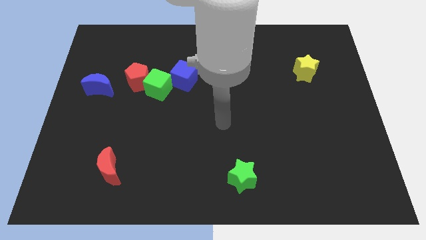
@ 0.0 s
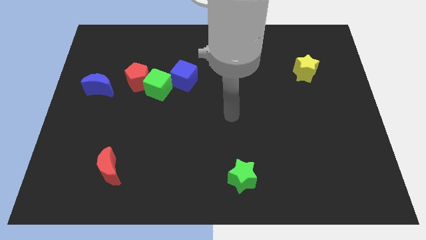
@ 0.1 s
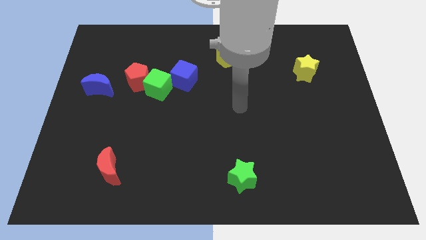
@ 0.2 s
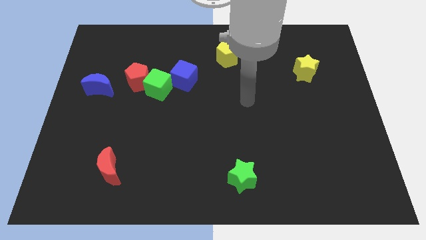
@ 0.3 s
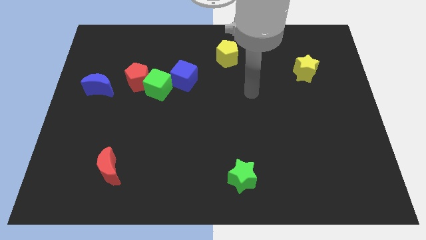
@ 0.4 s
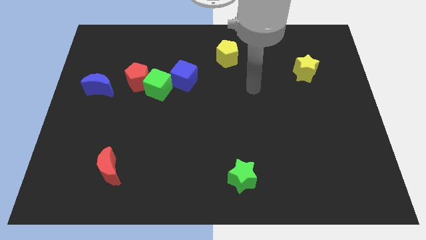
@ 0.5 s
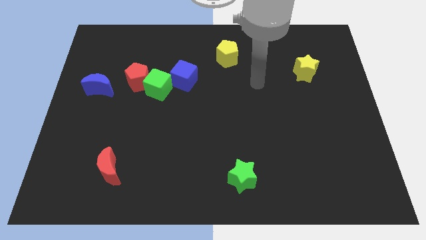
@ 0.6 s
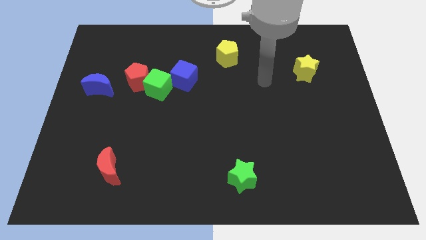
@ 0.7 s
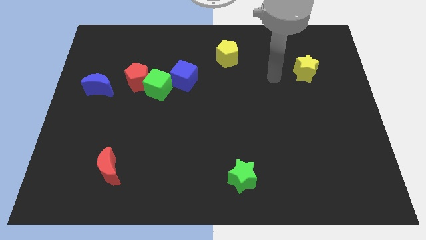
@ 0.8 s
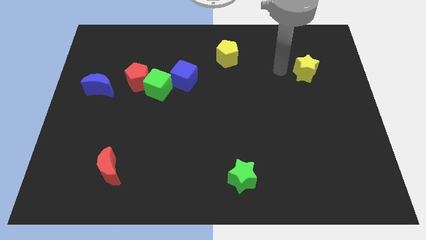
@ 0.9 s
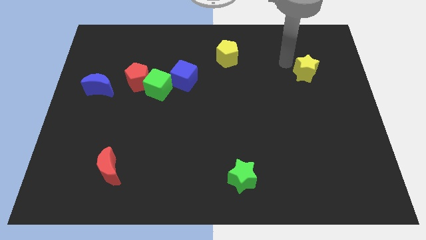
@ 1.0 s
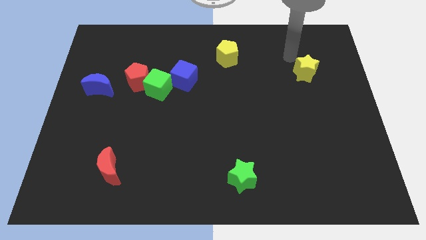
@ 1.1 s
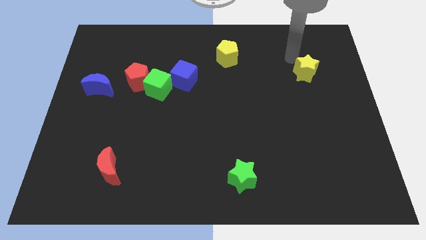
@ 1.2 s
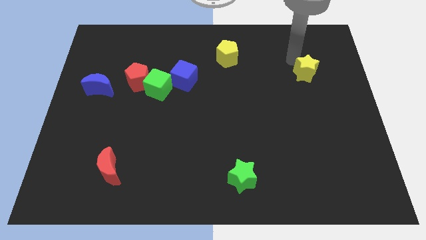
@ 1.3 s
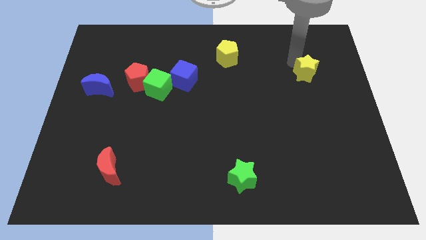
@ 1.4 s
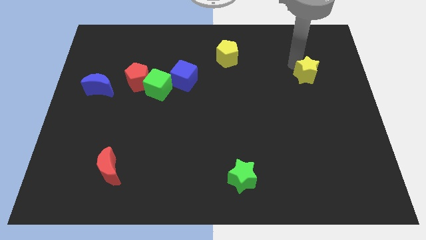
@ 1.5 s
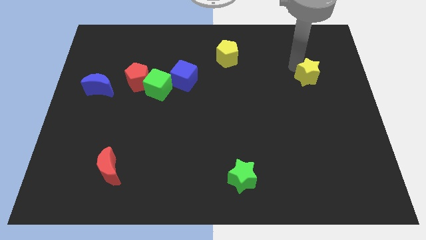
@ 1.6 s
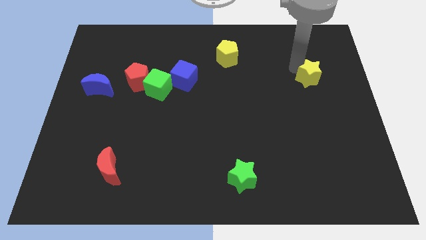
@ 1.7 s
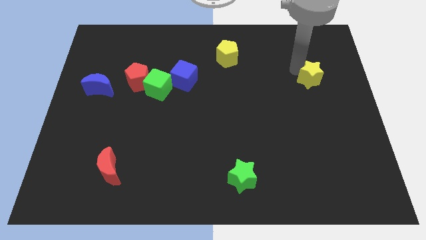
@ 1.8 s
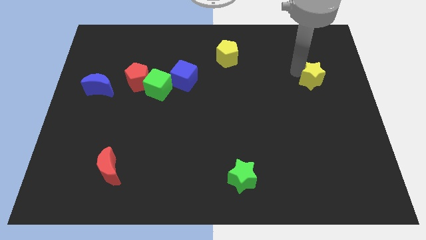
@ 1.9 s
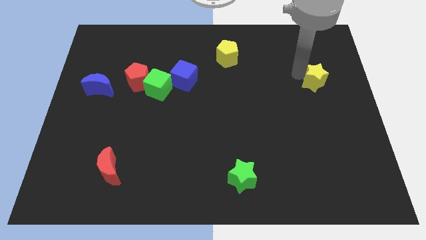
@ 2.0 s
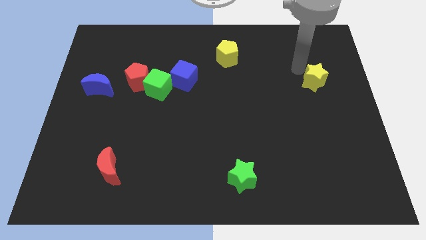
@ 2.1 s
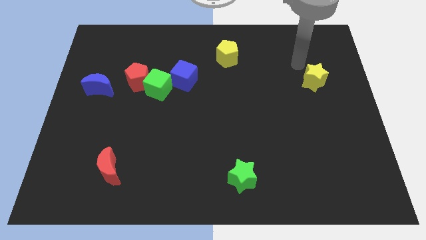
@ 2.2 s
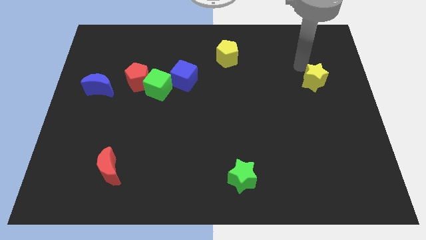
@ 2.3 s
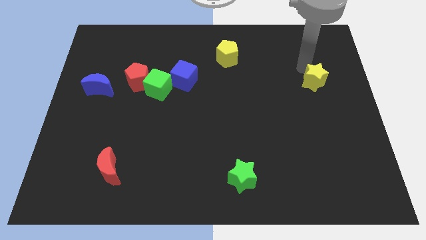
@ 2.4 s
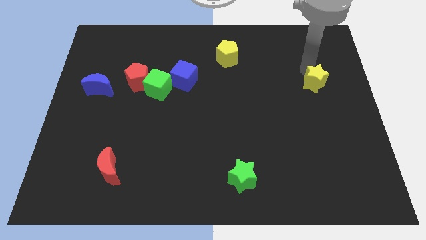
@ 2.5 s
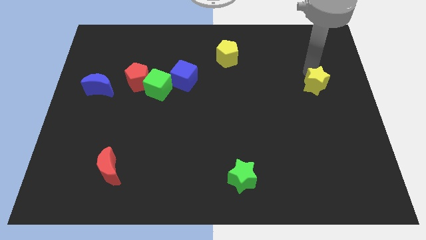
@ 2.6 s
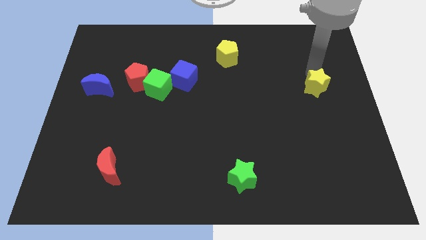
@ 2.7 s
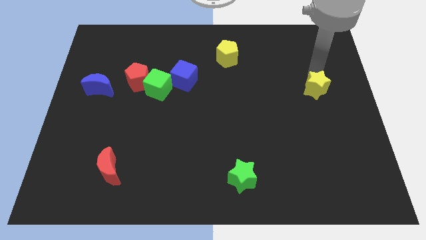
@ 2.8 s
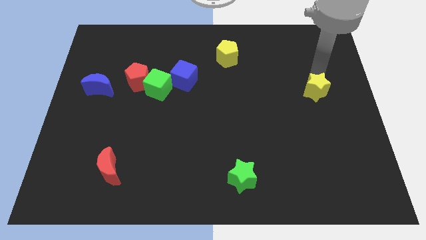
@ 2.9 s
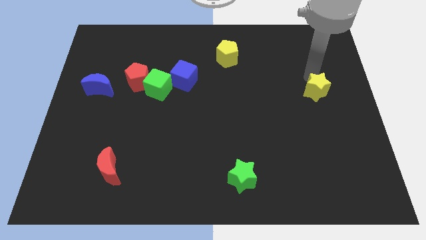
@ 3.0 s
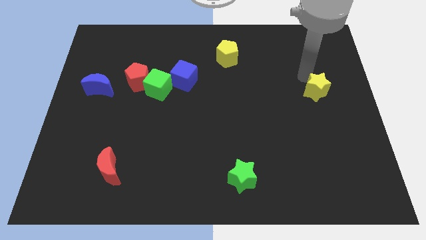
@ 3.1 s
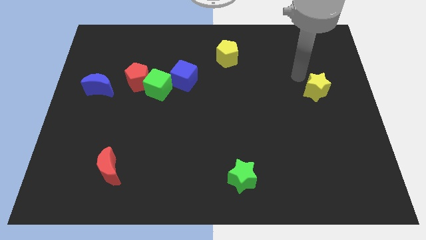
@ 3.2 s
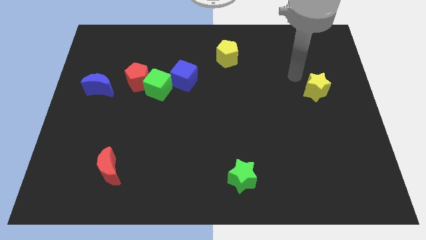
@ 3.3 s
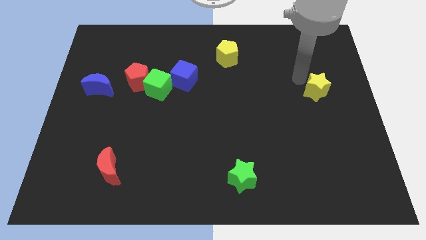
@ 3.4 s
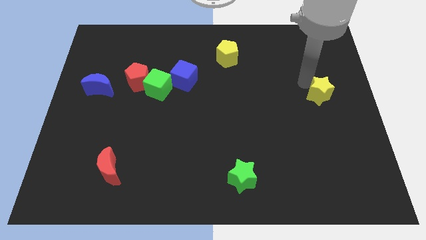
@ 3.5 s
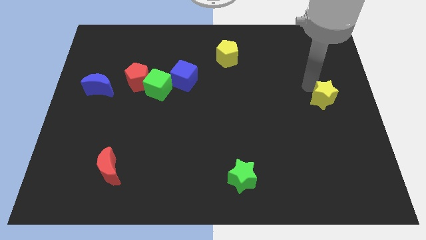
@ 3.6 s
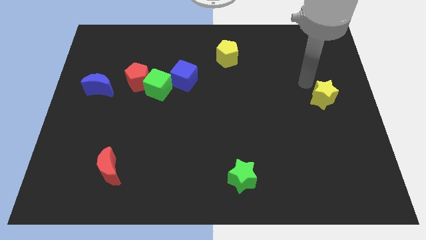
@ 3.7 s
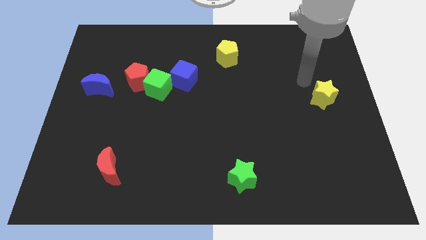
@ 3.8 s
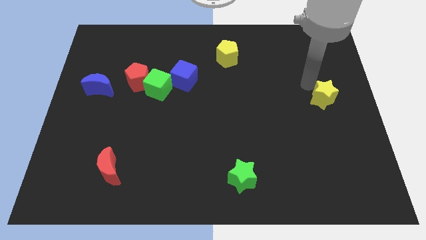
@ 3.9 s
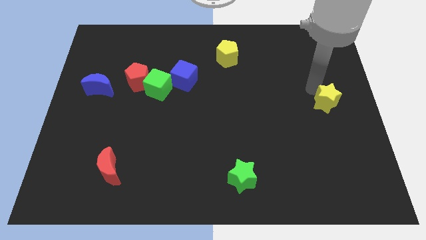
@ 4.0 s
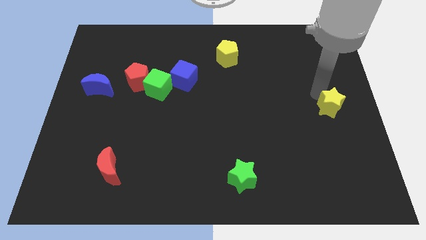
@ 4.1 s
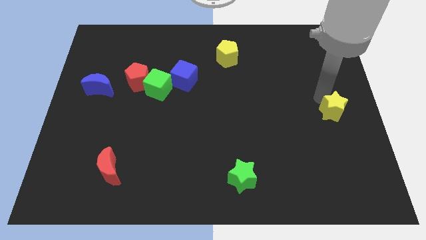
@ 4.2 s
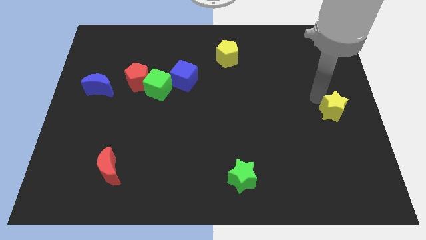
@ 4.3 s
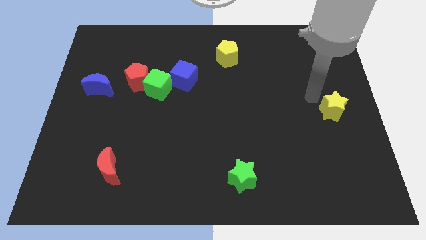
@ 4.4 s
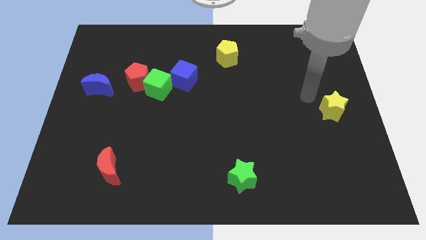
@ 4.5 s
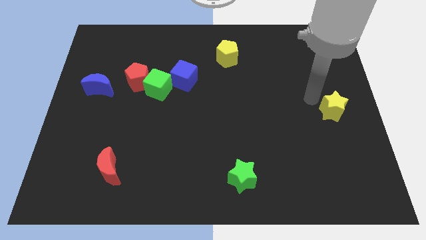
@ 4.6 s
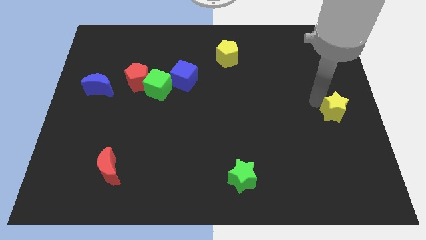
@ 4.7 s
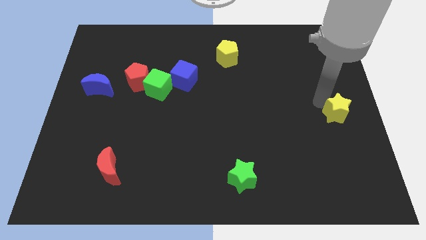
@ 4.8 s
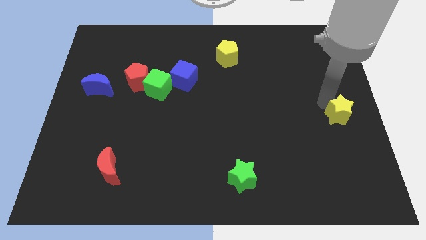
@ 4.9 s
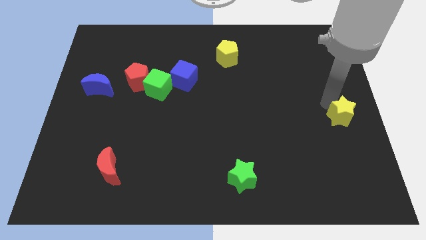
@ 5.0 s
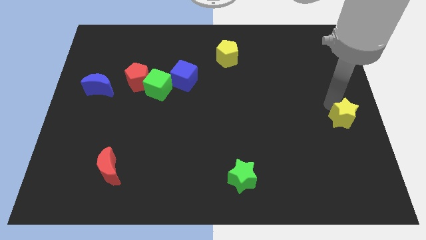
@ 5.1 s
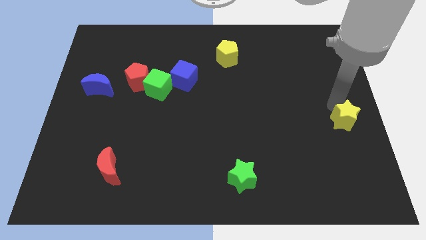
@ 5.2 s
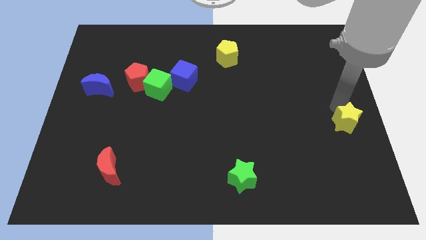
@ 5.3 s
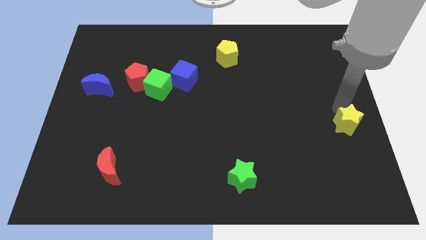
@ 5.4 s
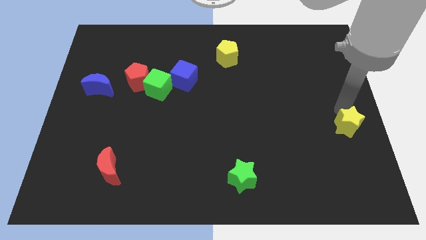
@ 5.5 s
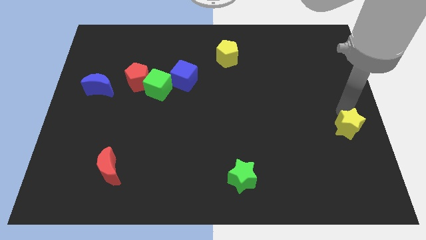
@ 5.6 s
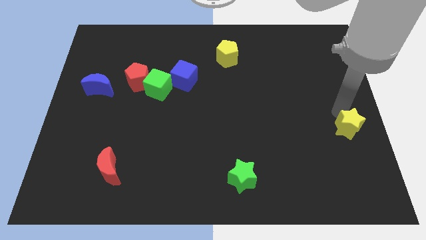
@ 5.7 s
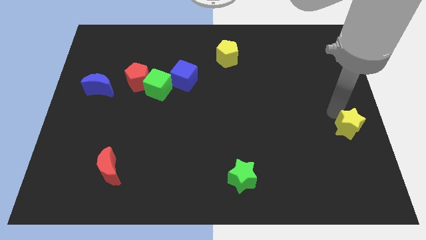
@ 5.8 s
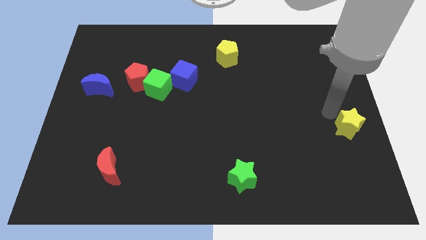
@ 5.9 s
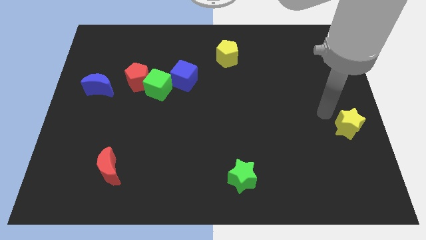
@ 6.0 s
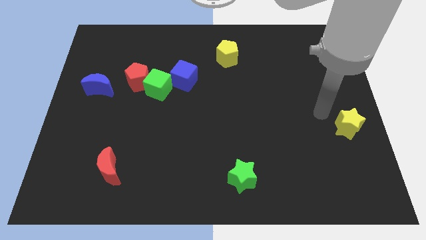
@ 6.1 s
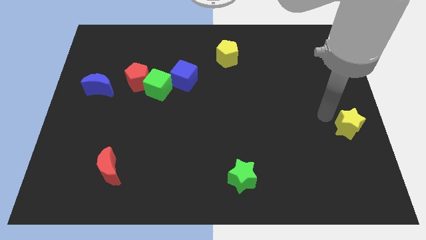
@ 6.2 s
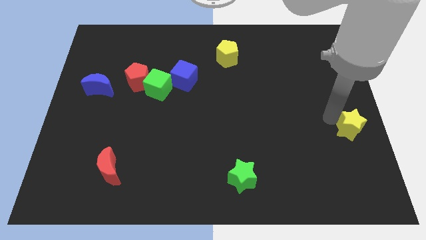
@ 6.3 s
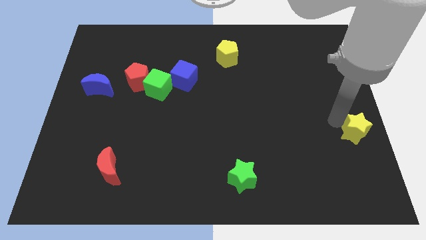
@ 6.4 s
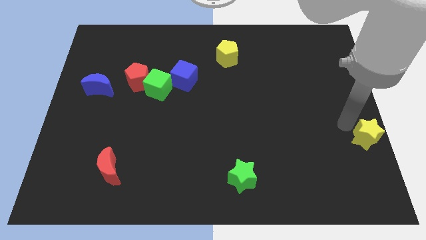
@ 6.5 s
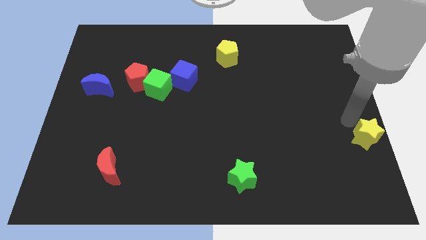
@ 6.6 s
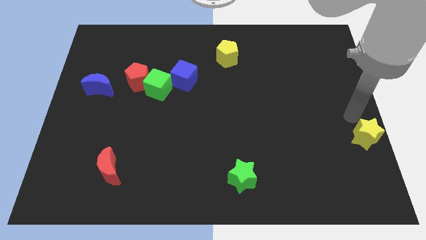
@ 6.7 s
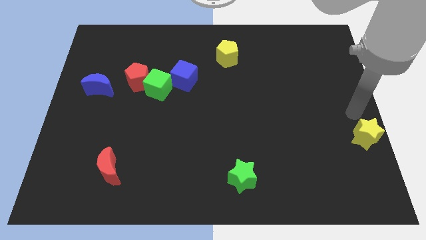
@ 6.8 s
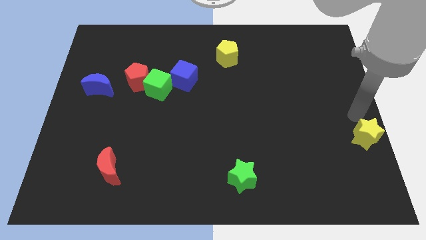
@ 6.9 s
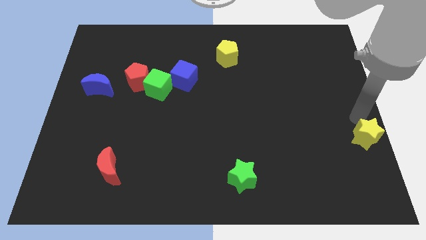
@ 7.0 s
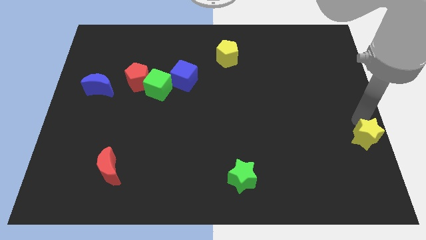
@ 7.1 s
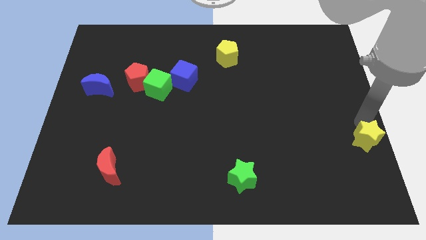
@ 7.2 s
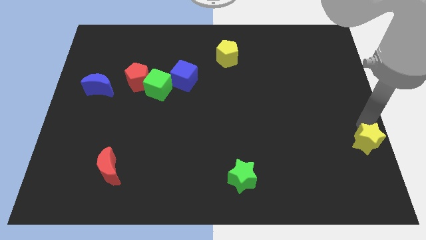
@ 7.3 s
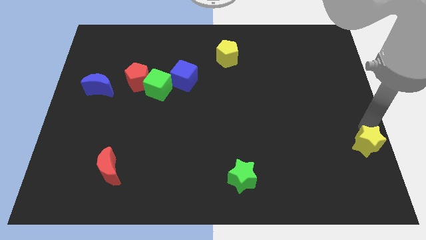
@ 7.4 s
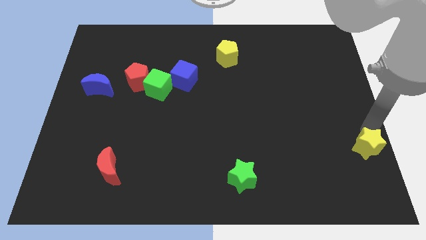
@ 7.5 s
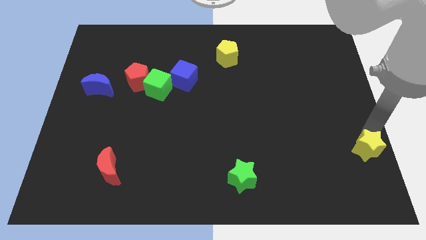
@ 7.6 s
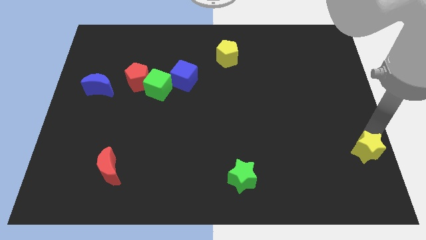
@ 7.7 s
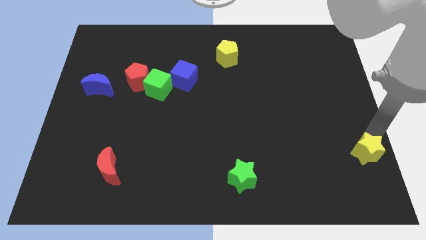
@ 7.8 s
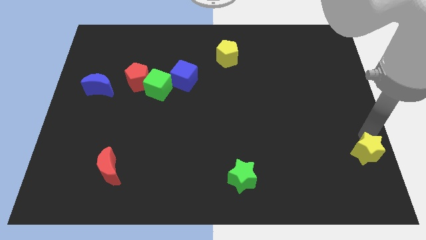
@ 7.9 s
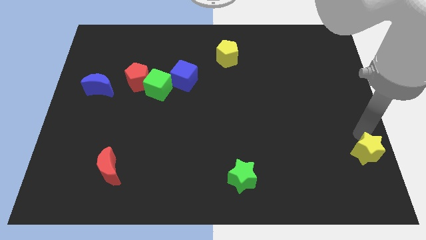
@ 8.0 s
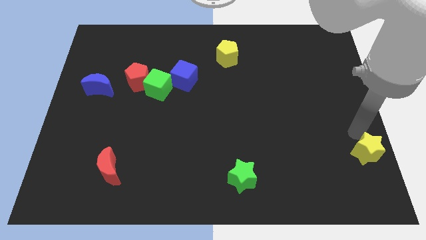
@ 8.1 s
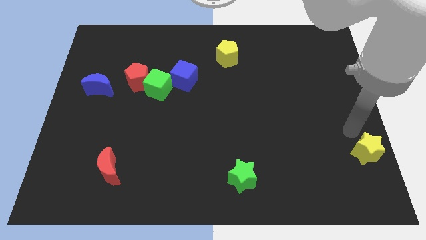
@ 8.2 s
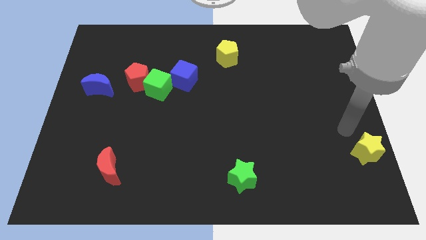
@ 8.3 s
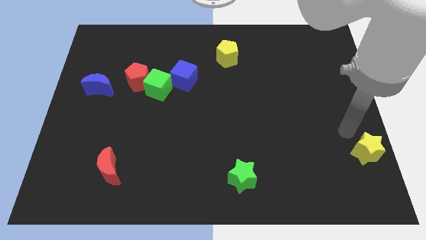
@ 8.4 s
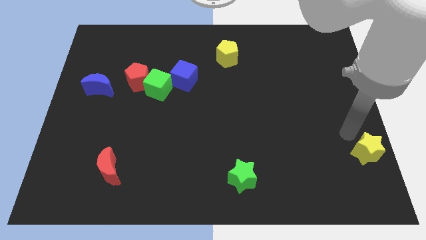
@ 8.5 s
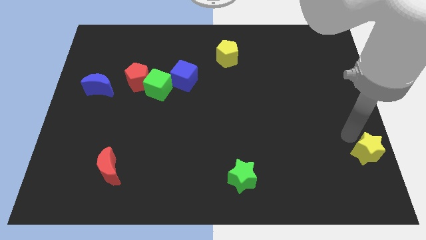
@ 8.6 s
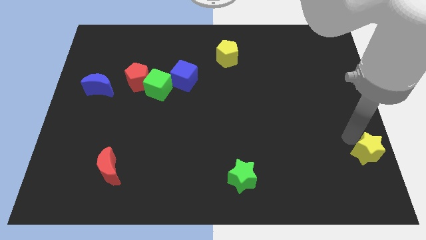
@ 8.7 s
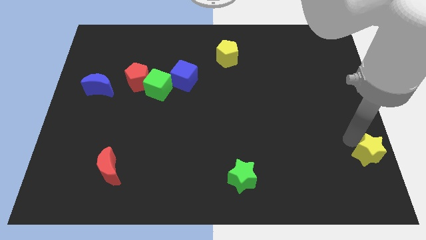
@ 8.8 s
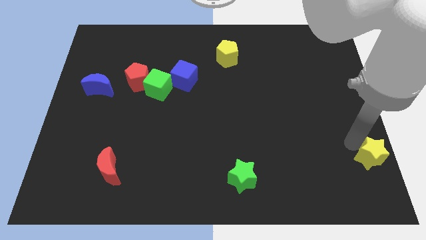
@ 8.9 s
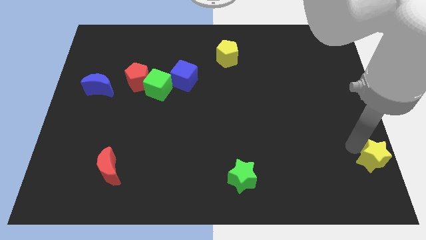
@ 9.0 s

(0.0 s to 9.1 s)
move the yellow star to the bottom right corner
